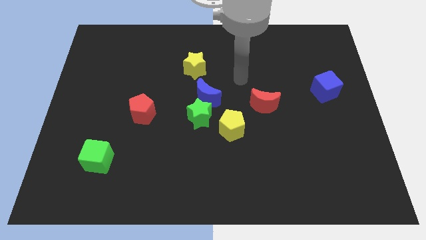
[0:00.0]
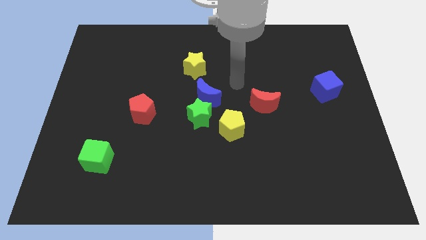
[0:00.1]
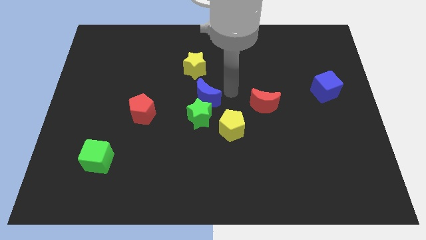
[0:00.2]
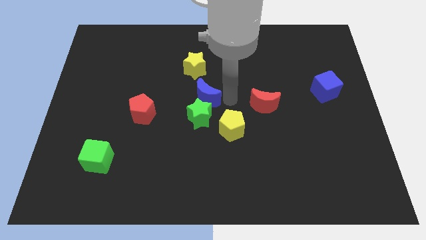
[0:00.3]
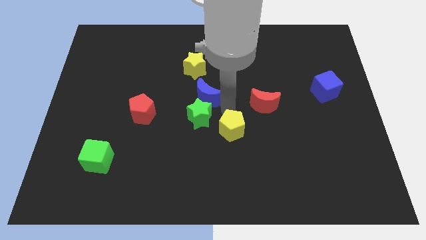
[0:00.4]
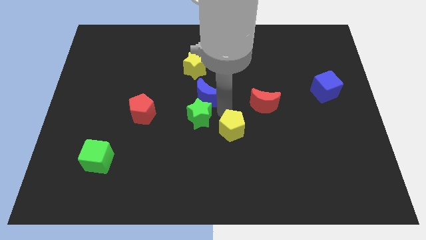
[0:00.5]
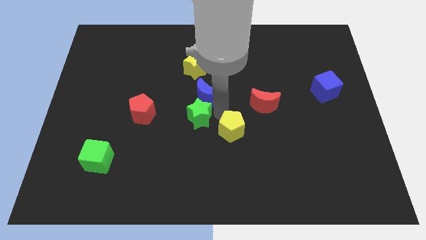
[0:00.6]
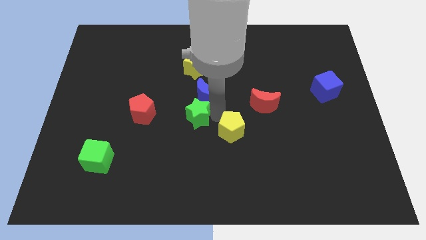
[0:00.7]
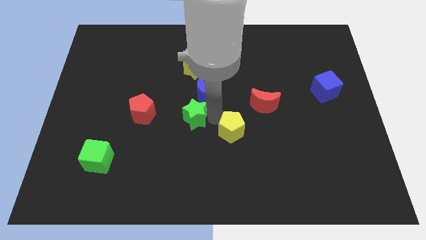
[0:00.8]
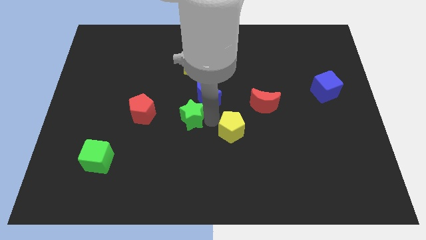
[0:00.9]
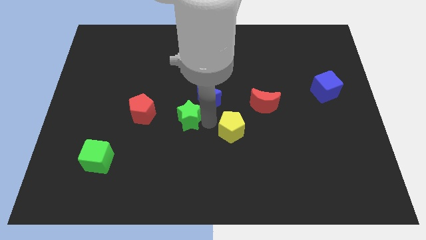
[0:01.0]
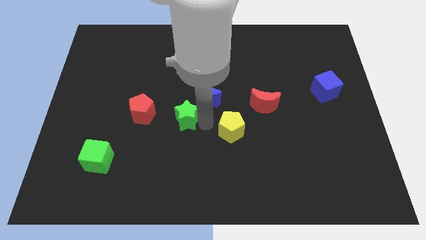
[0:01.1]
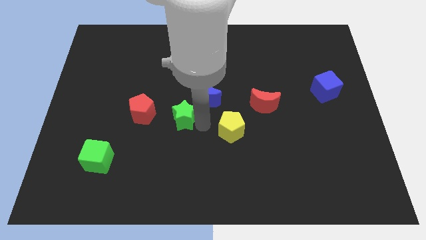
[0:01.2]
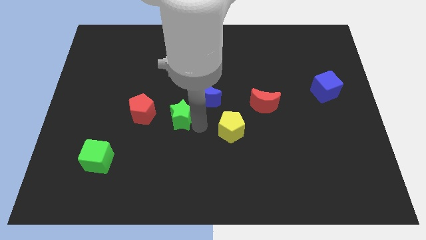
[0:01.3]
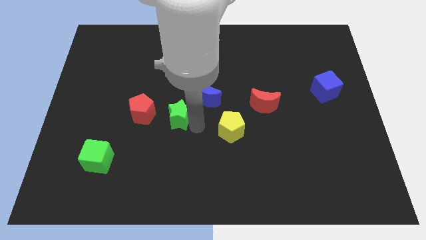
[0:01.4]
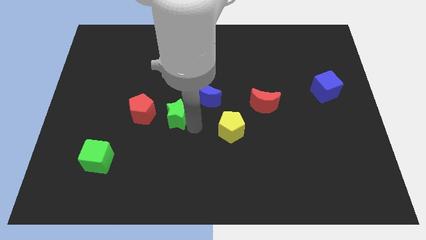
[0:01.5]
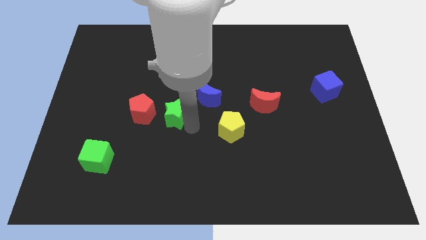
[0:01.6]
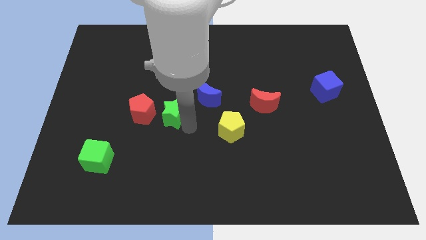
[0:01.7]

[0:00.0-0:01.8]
pull the green star apart from the blue moon and yellow pentagon

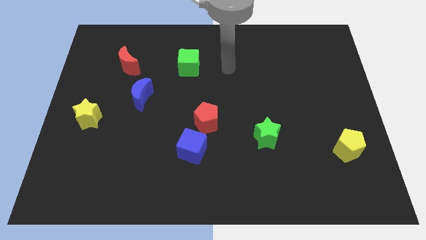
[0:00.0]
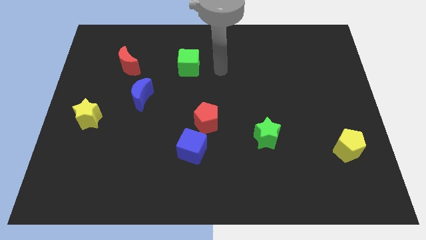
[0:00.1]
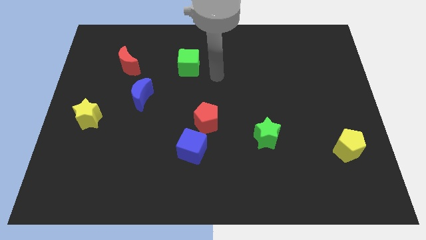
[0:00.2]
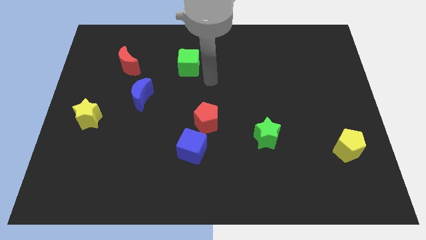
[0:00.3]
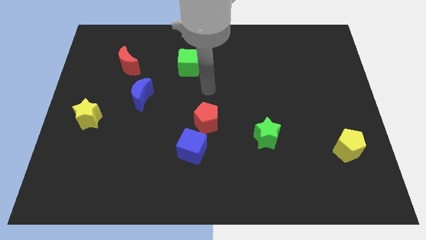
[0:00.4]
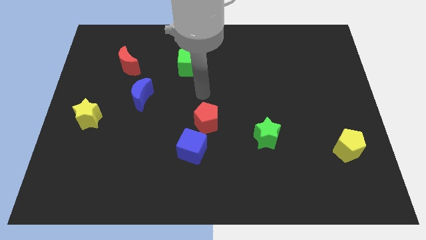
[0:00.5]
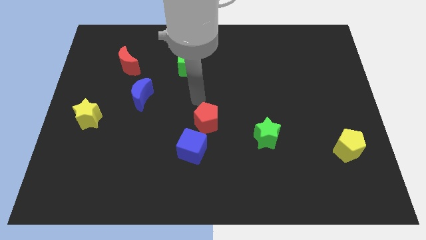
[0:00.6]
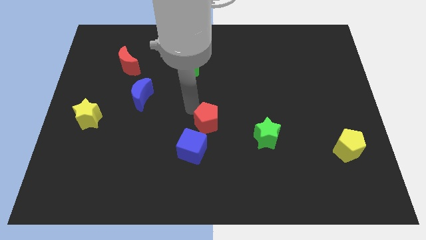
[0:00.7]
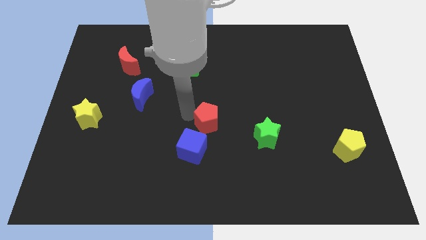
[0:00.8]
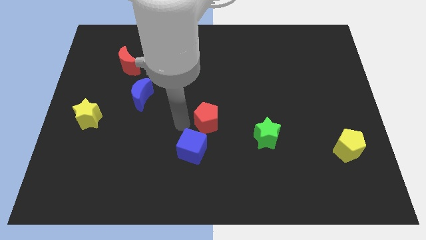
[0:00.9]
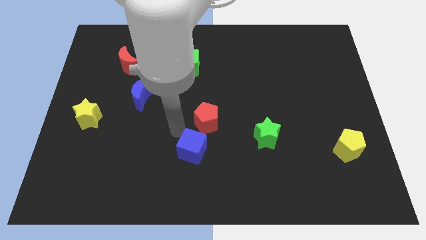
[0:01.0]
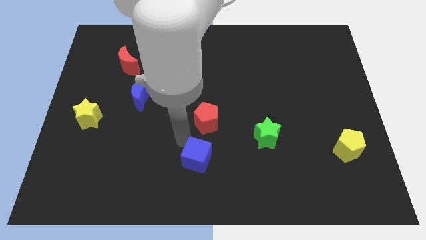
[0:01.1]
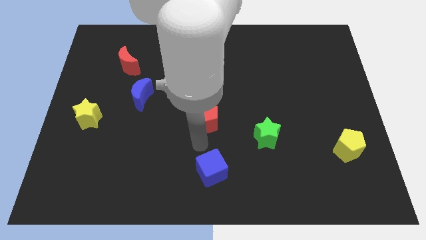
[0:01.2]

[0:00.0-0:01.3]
separate the red pentagon from the blue cube

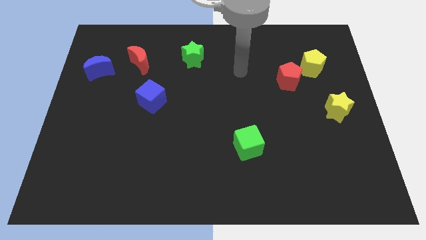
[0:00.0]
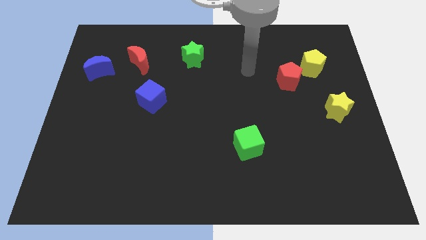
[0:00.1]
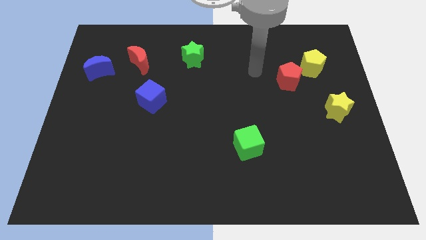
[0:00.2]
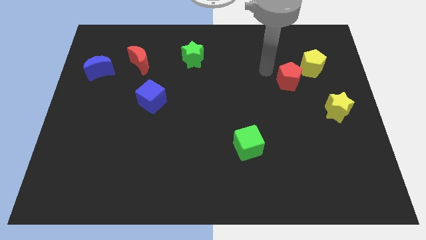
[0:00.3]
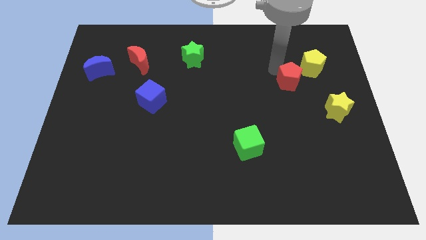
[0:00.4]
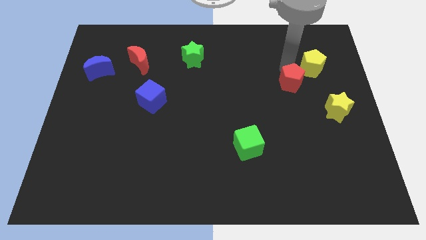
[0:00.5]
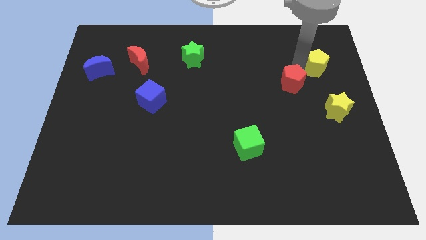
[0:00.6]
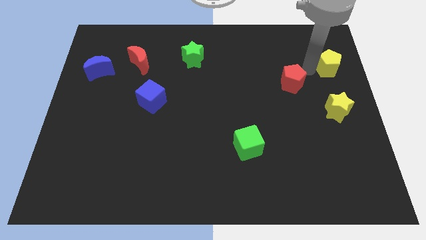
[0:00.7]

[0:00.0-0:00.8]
move the red pentagon away from the yellow pentagon

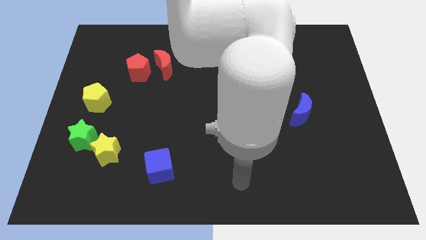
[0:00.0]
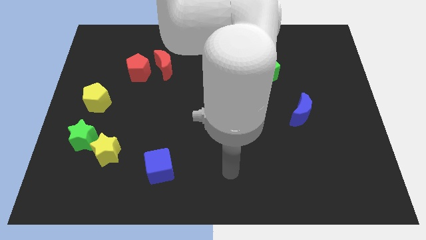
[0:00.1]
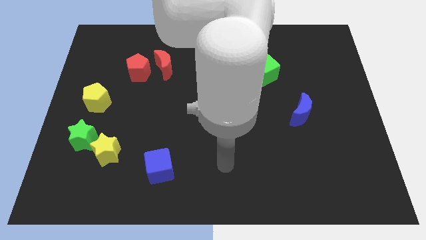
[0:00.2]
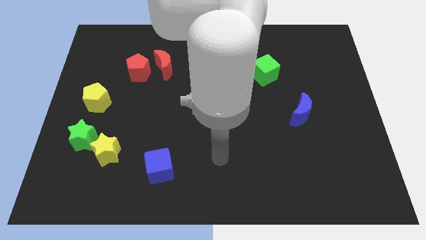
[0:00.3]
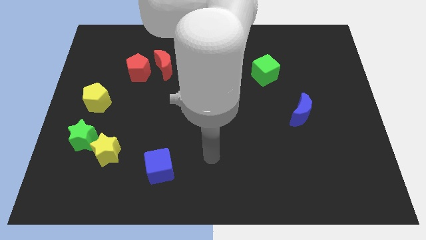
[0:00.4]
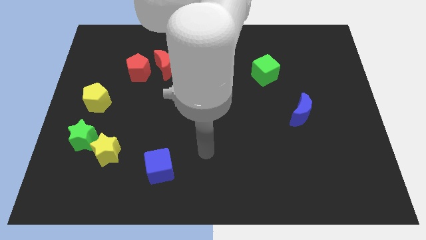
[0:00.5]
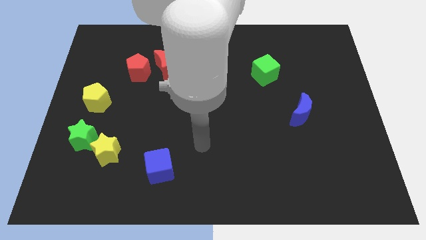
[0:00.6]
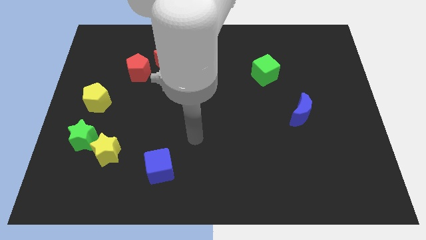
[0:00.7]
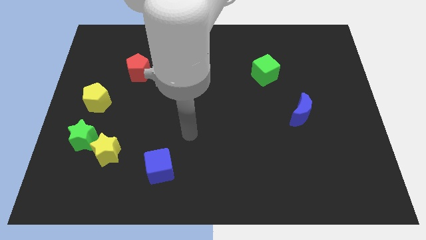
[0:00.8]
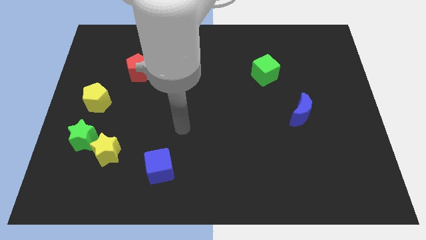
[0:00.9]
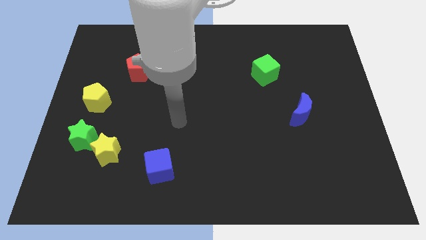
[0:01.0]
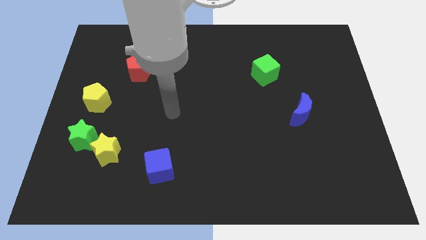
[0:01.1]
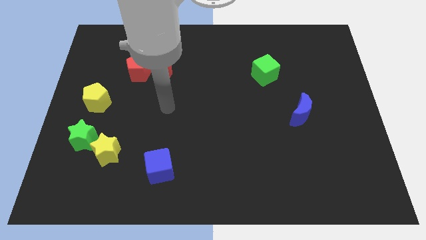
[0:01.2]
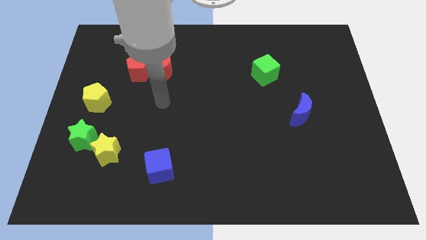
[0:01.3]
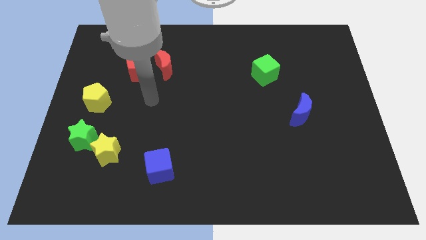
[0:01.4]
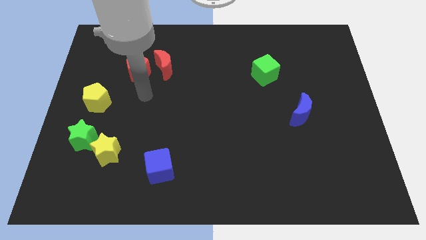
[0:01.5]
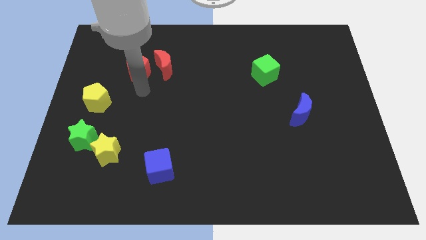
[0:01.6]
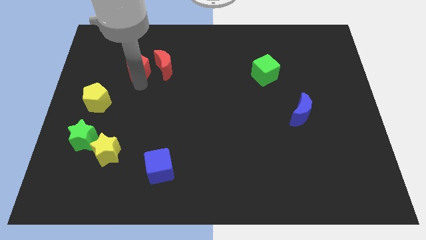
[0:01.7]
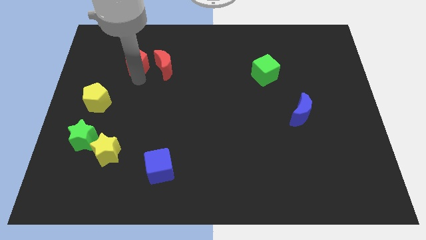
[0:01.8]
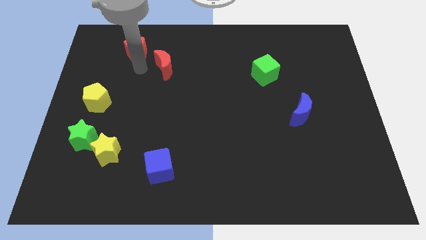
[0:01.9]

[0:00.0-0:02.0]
move the red moon away from the red pentagon

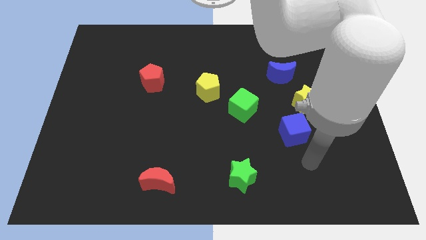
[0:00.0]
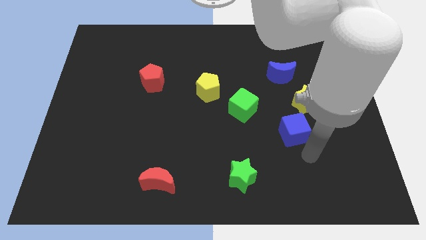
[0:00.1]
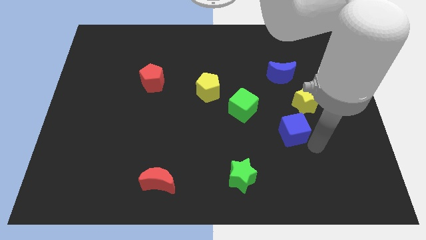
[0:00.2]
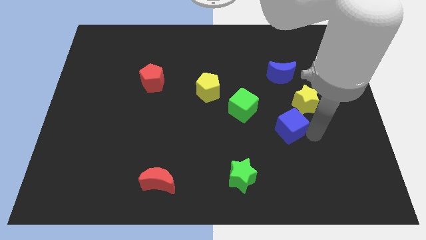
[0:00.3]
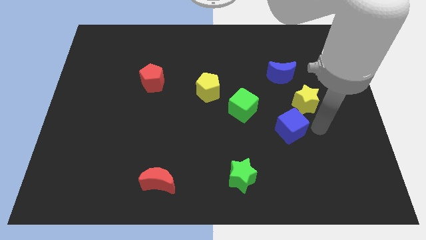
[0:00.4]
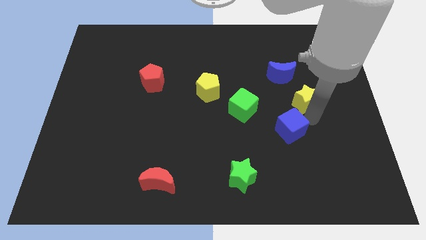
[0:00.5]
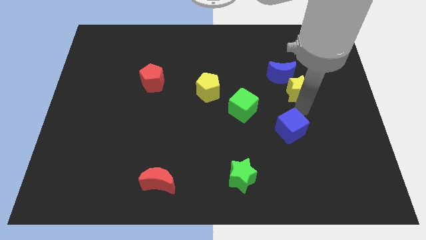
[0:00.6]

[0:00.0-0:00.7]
move the blue cube away from the yellow star

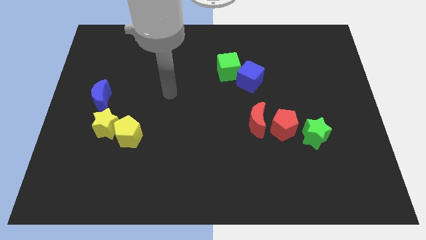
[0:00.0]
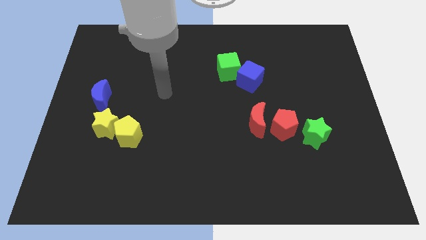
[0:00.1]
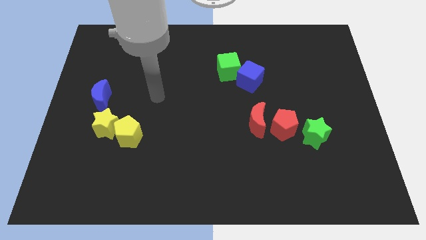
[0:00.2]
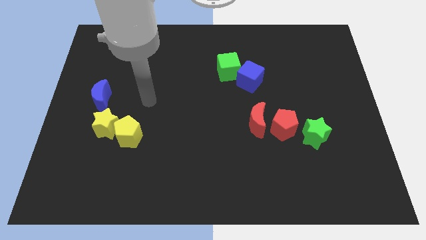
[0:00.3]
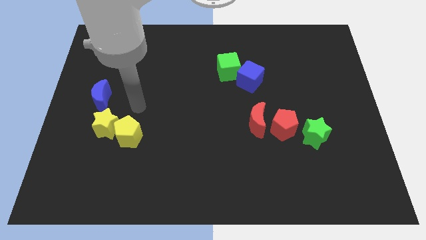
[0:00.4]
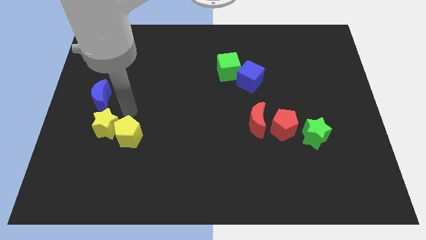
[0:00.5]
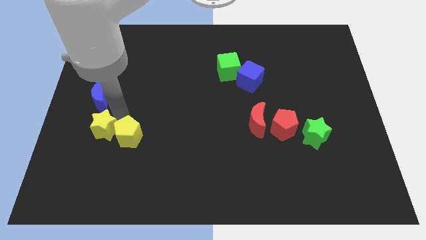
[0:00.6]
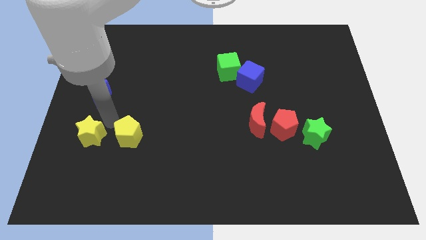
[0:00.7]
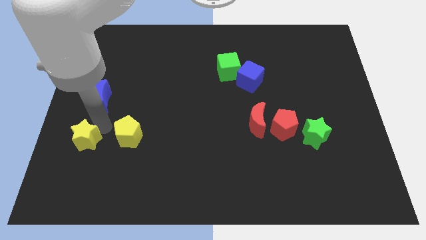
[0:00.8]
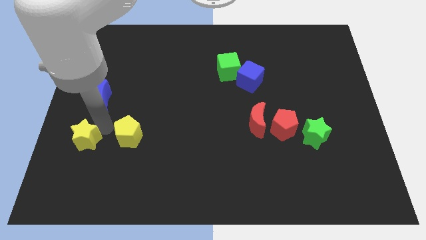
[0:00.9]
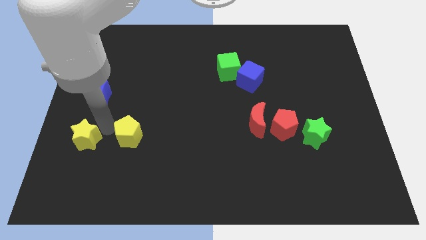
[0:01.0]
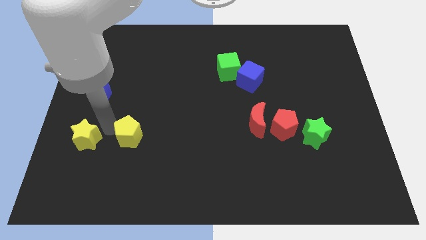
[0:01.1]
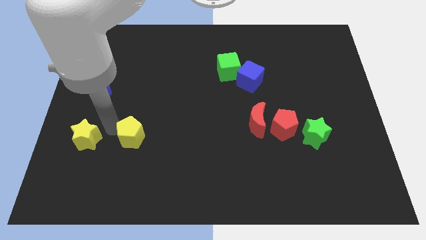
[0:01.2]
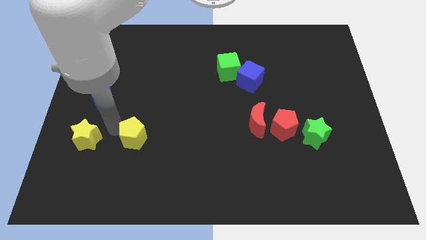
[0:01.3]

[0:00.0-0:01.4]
move the yellow pentagon away from the yellow star

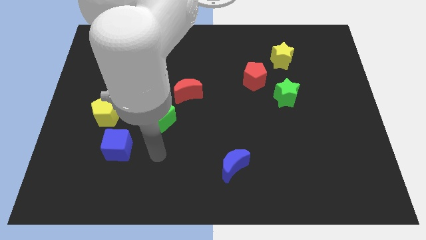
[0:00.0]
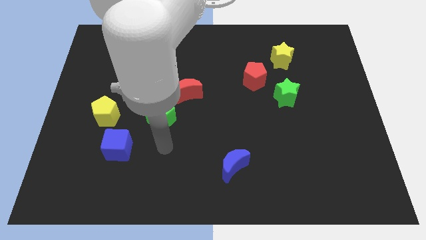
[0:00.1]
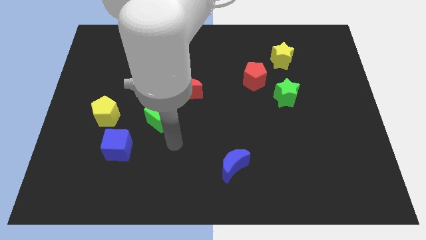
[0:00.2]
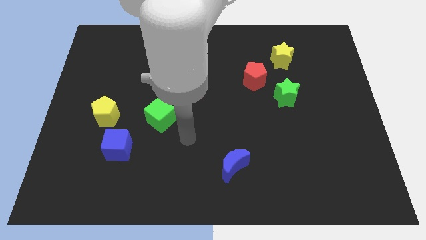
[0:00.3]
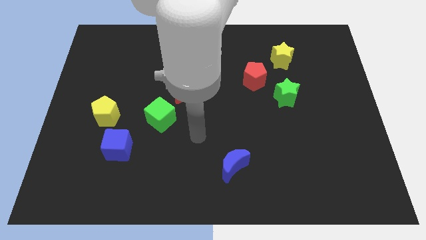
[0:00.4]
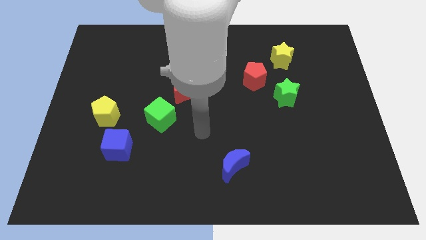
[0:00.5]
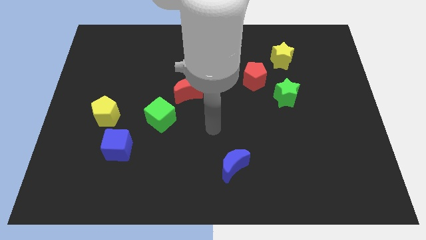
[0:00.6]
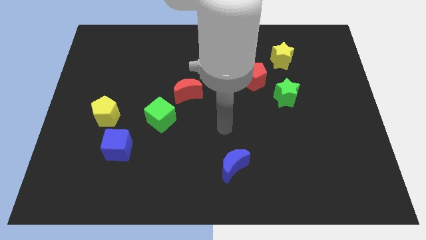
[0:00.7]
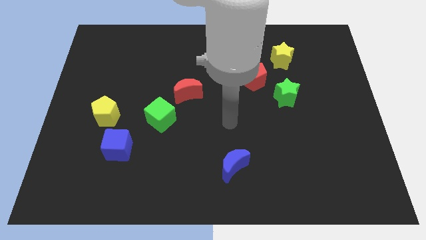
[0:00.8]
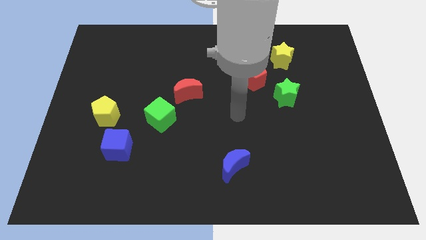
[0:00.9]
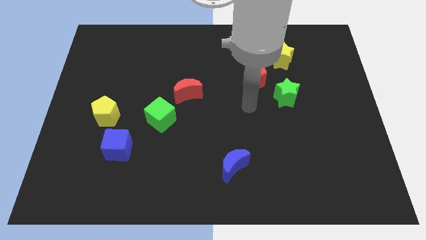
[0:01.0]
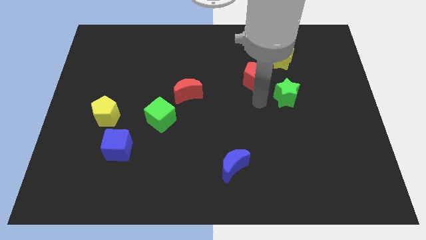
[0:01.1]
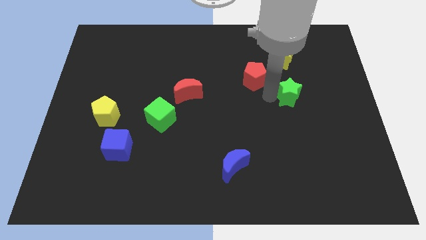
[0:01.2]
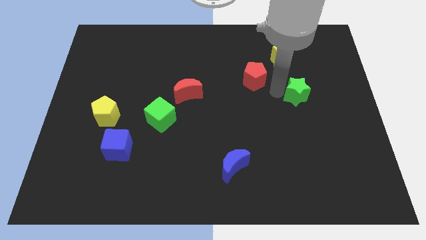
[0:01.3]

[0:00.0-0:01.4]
pull the red pentagon apart from the green star
